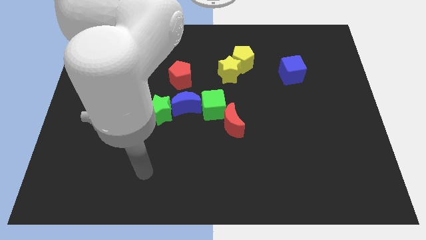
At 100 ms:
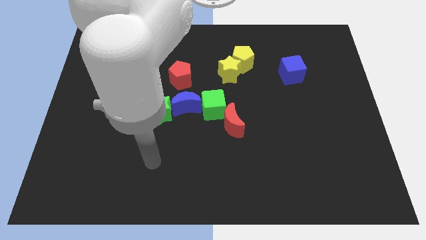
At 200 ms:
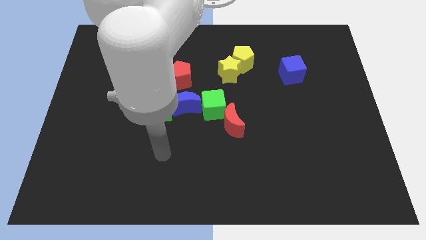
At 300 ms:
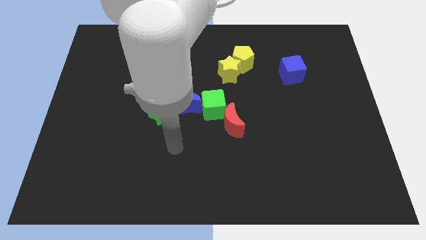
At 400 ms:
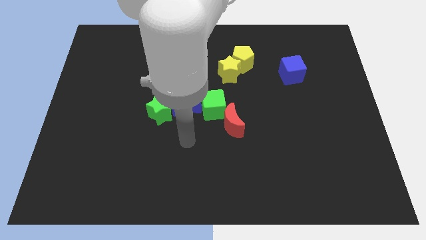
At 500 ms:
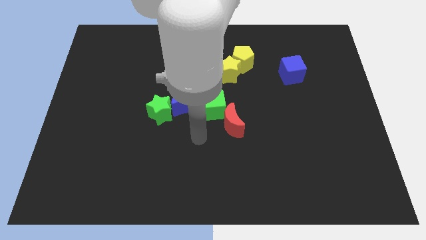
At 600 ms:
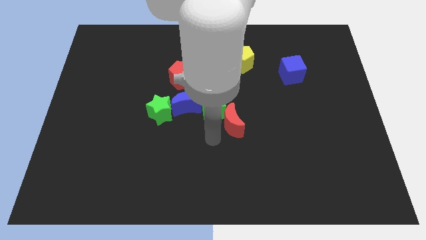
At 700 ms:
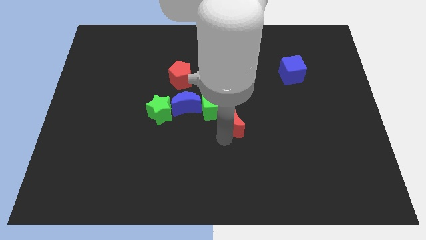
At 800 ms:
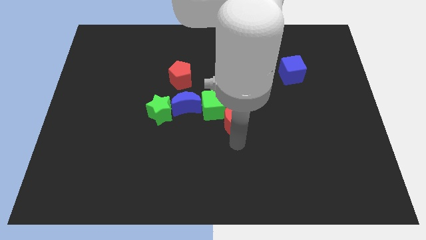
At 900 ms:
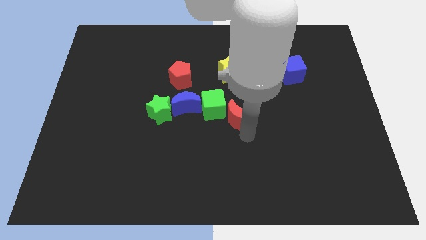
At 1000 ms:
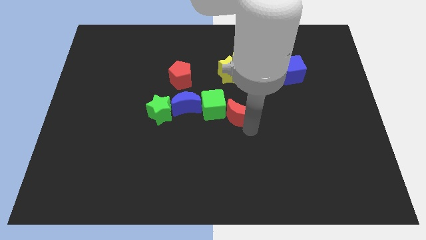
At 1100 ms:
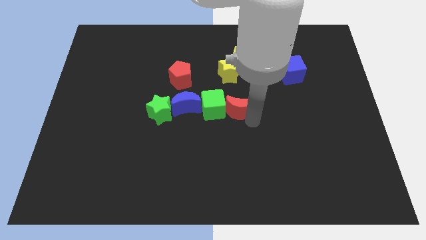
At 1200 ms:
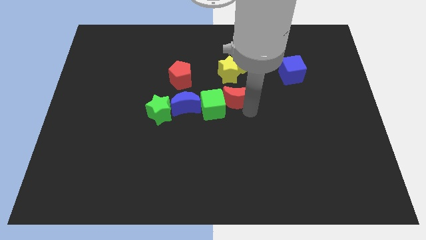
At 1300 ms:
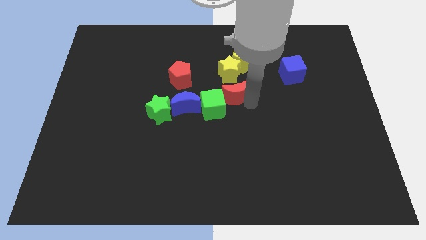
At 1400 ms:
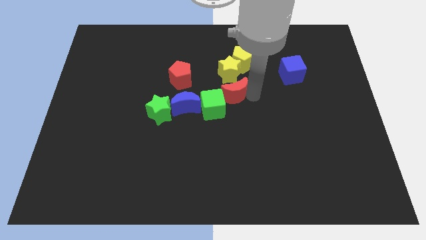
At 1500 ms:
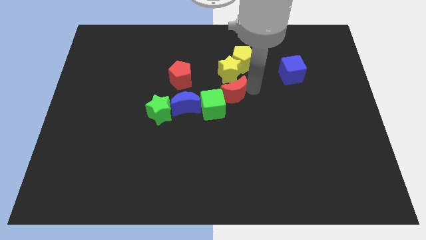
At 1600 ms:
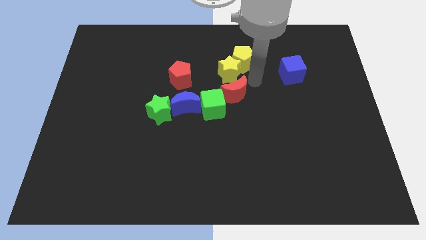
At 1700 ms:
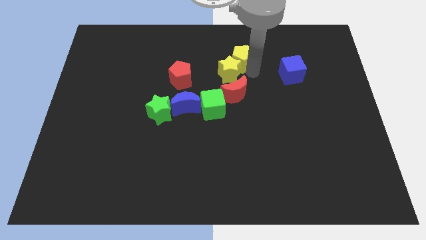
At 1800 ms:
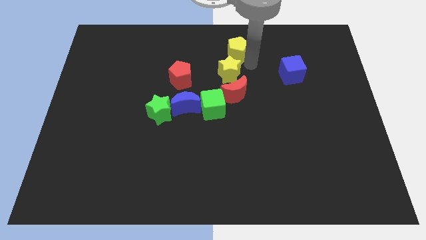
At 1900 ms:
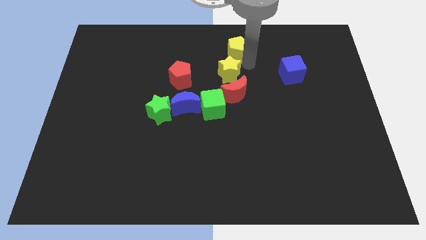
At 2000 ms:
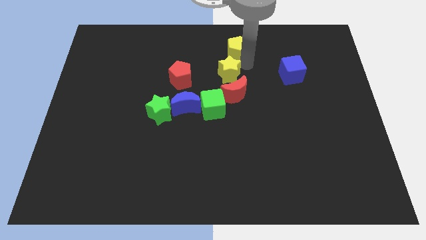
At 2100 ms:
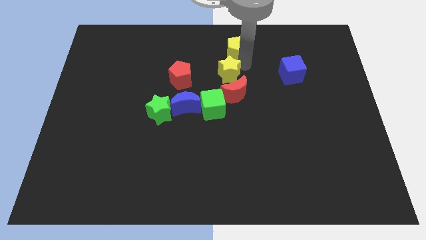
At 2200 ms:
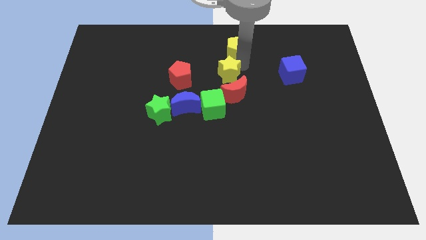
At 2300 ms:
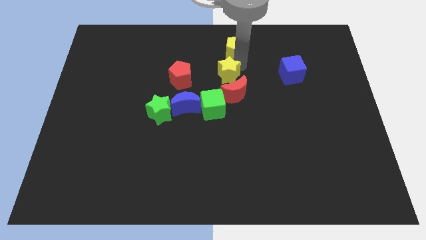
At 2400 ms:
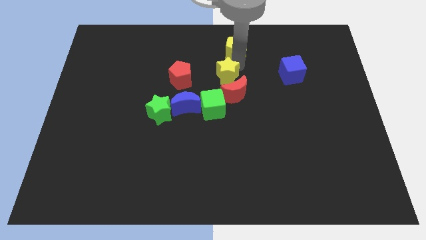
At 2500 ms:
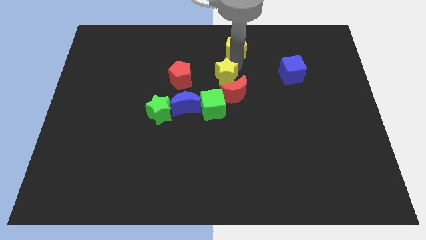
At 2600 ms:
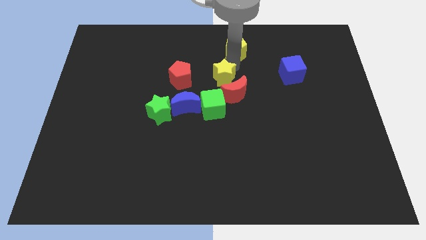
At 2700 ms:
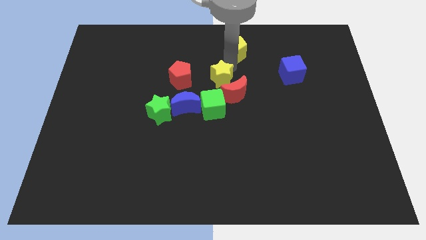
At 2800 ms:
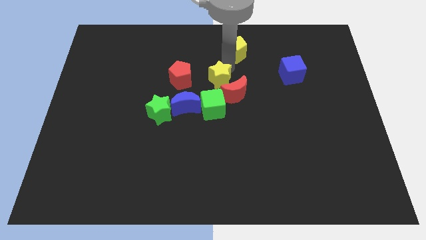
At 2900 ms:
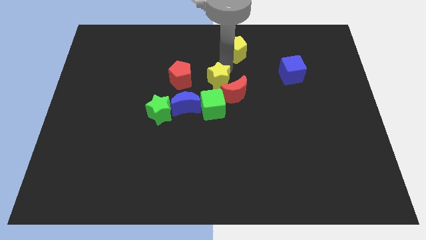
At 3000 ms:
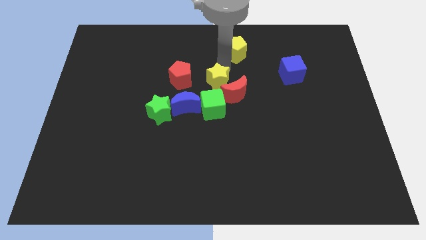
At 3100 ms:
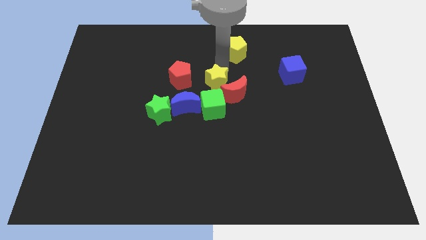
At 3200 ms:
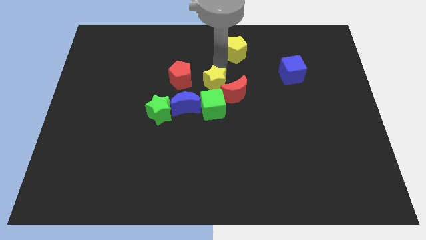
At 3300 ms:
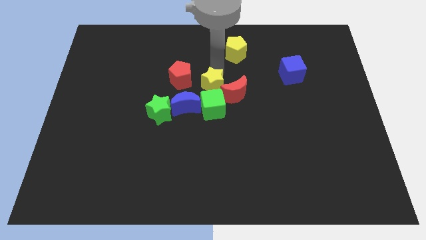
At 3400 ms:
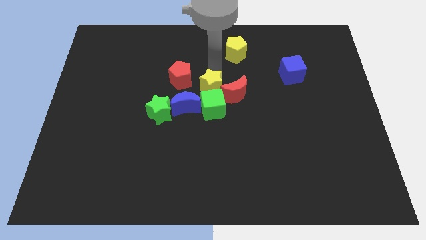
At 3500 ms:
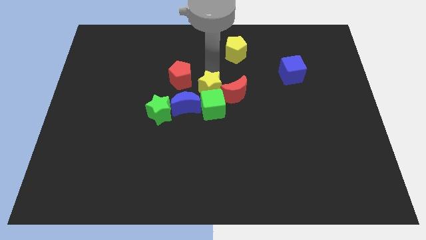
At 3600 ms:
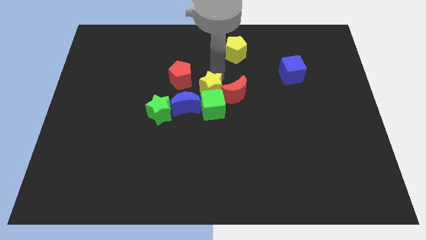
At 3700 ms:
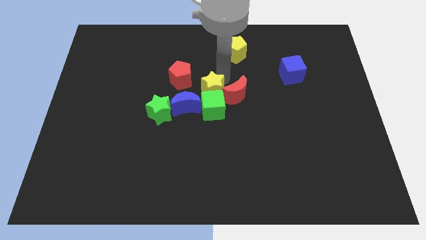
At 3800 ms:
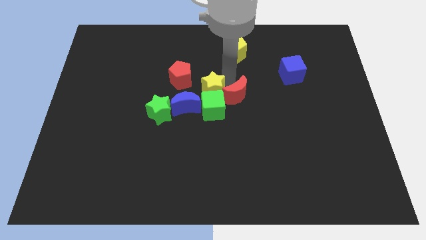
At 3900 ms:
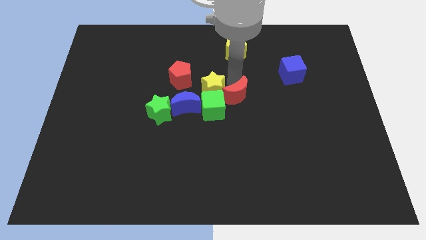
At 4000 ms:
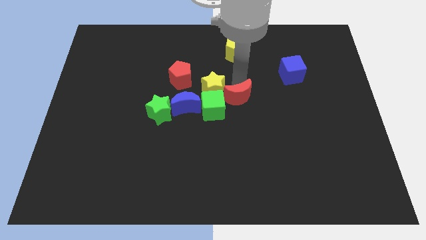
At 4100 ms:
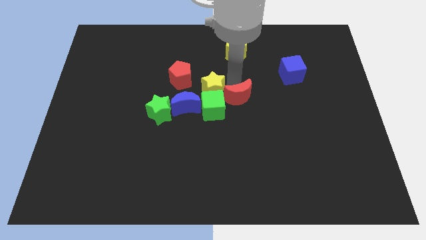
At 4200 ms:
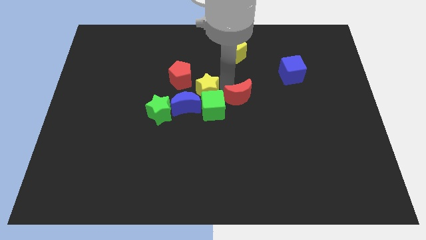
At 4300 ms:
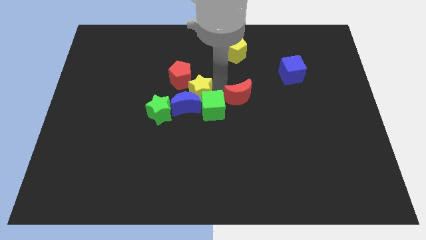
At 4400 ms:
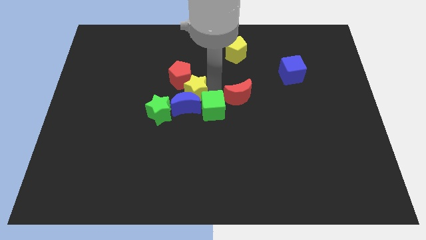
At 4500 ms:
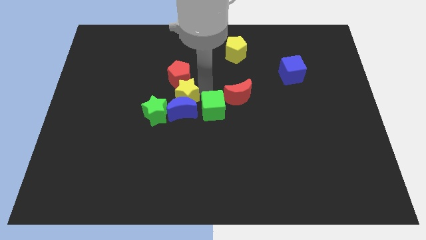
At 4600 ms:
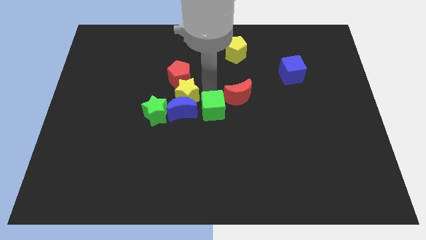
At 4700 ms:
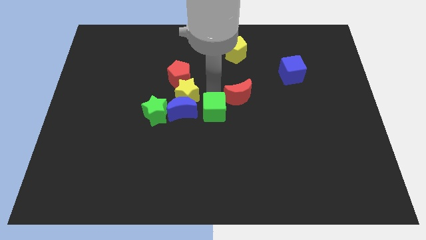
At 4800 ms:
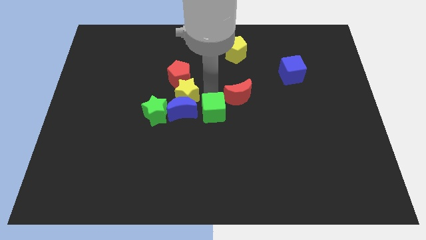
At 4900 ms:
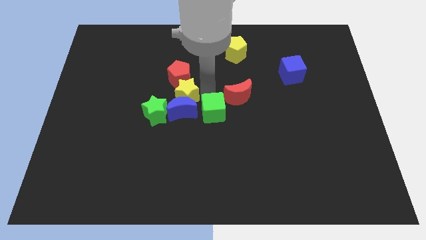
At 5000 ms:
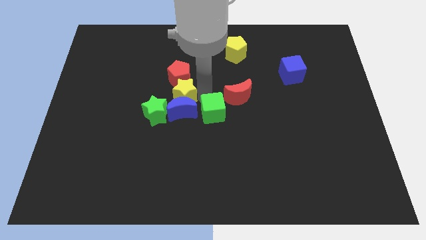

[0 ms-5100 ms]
slide the yellow star to the bottom left of the red pentagon

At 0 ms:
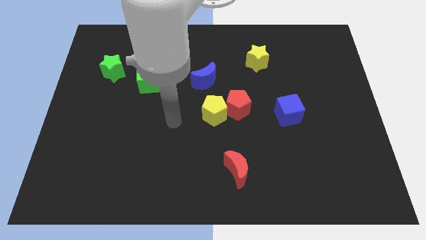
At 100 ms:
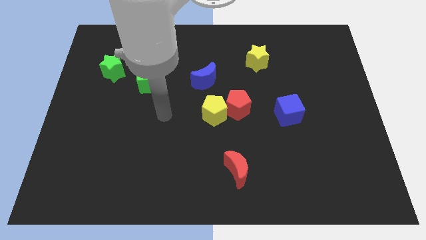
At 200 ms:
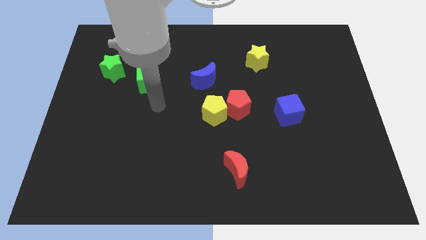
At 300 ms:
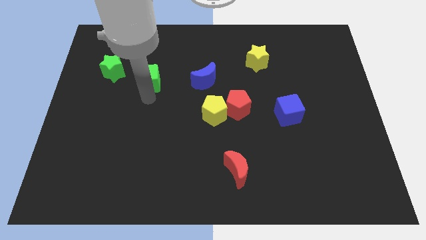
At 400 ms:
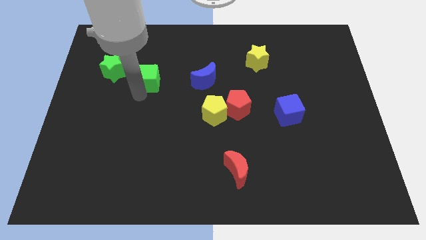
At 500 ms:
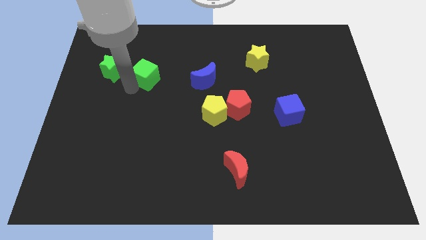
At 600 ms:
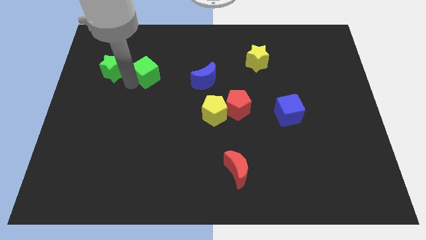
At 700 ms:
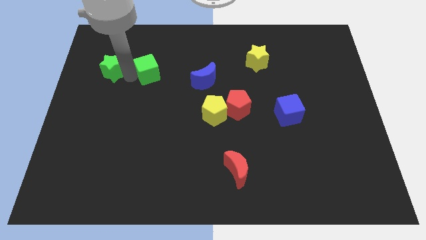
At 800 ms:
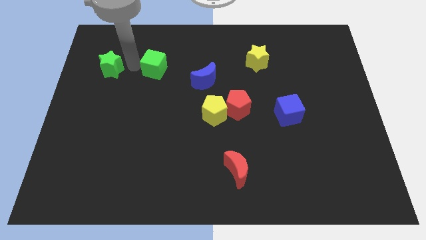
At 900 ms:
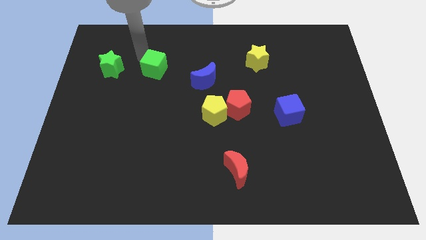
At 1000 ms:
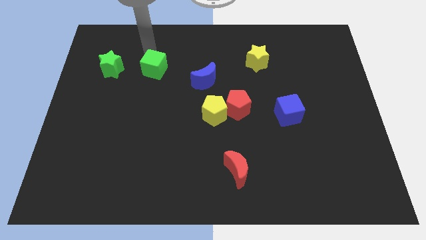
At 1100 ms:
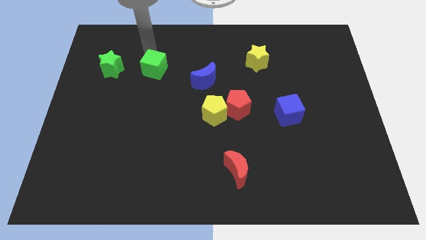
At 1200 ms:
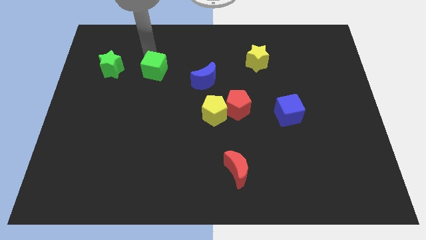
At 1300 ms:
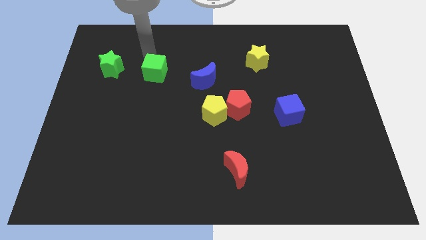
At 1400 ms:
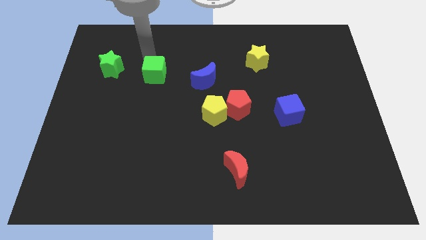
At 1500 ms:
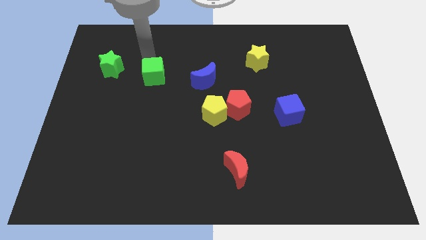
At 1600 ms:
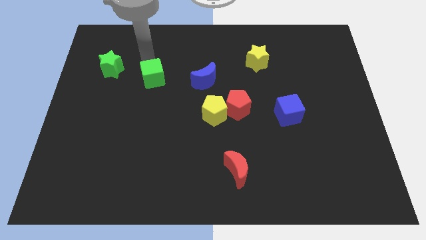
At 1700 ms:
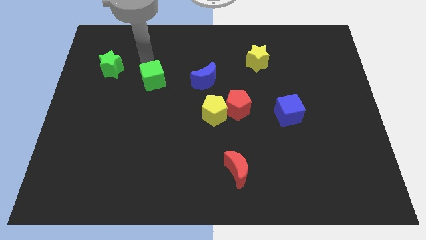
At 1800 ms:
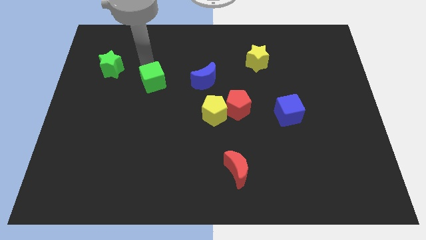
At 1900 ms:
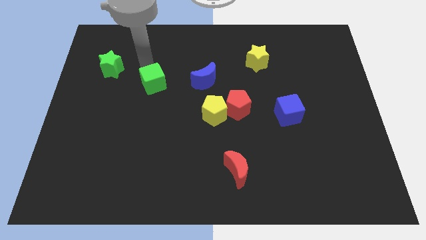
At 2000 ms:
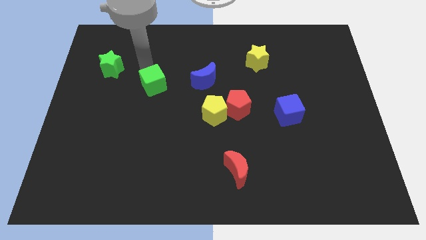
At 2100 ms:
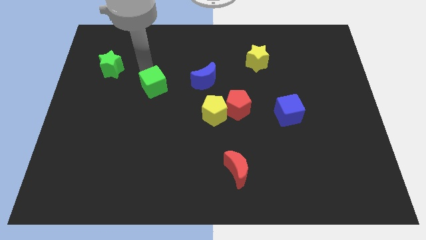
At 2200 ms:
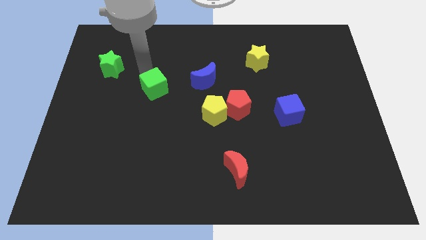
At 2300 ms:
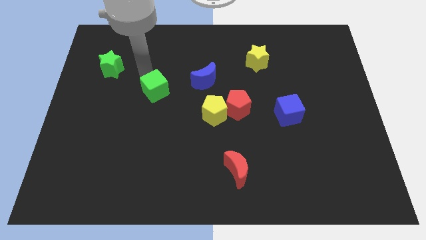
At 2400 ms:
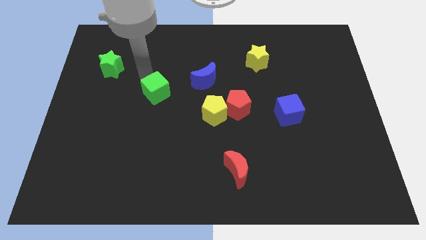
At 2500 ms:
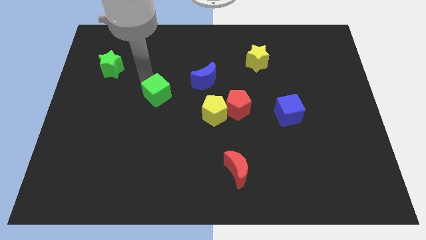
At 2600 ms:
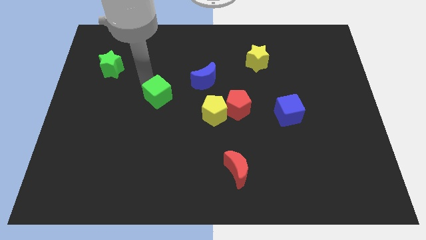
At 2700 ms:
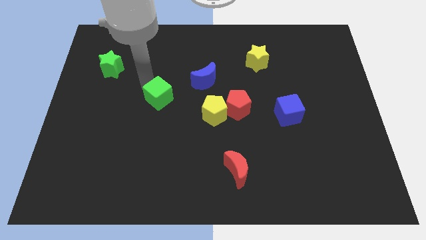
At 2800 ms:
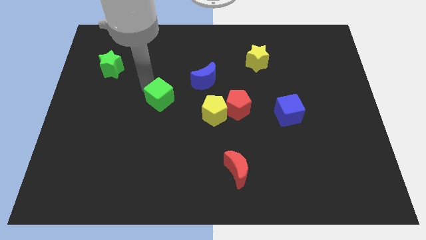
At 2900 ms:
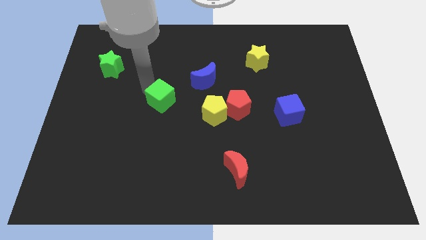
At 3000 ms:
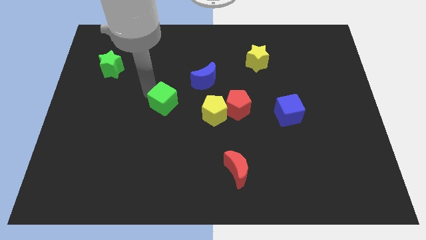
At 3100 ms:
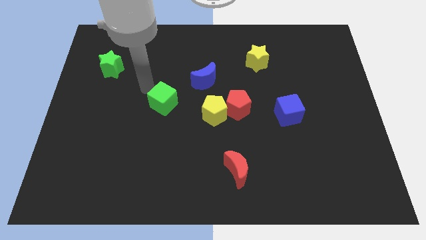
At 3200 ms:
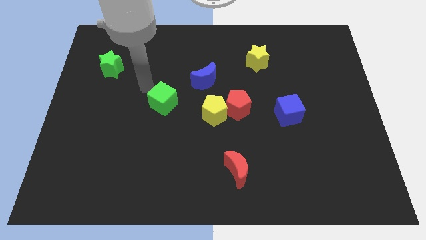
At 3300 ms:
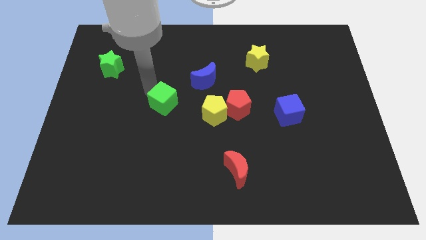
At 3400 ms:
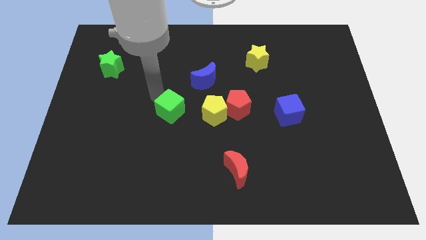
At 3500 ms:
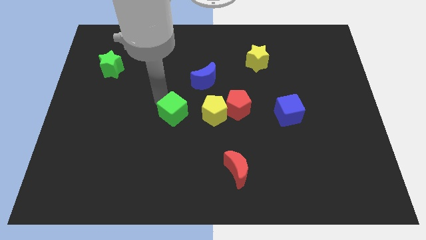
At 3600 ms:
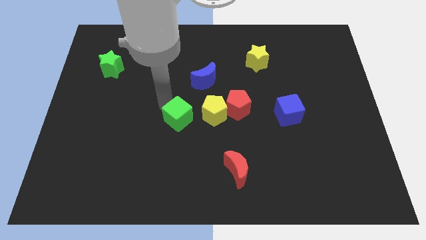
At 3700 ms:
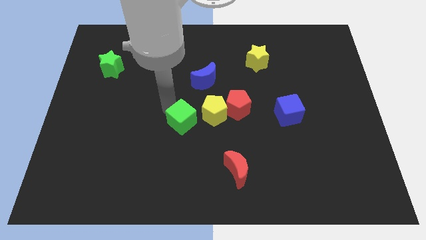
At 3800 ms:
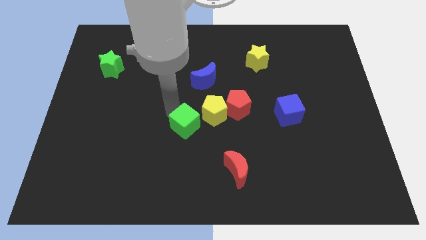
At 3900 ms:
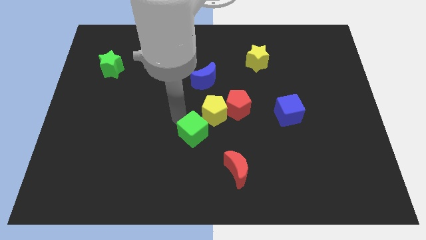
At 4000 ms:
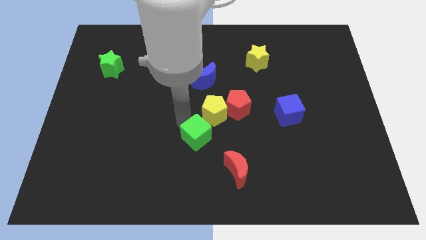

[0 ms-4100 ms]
push the green cube diagonally up and to the left of the red moon
